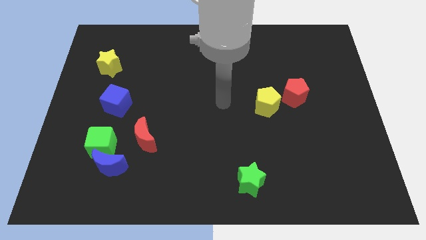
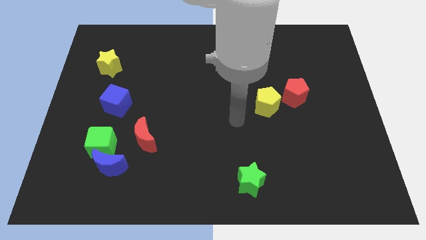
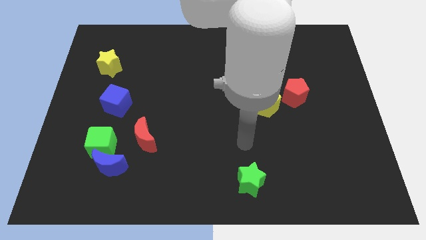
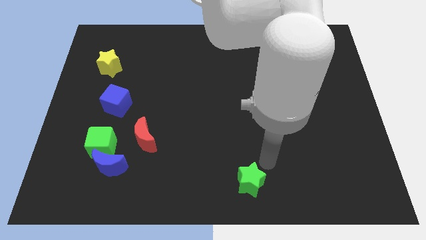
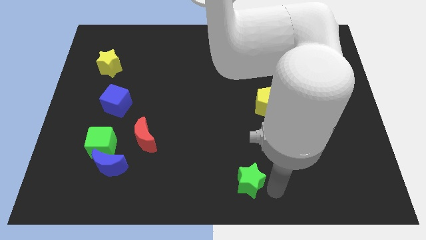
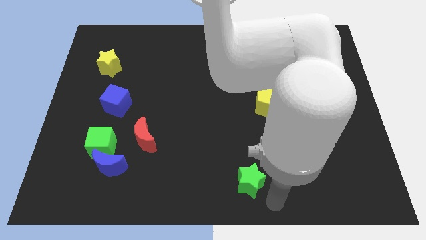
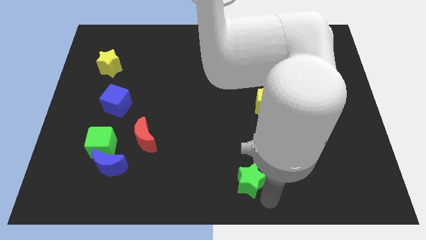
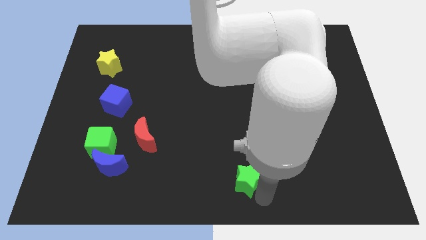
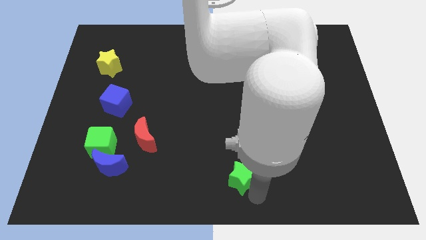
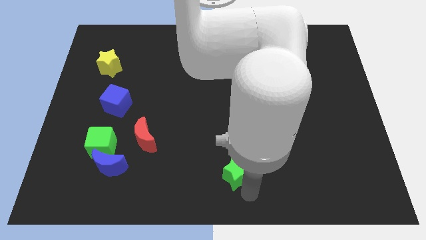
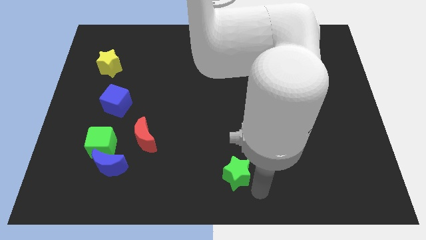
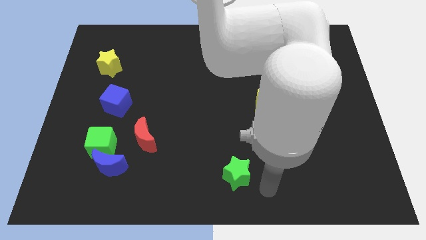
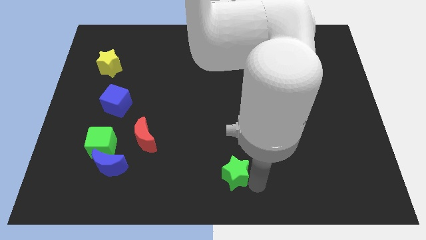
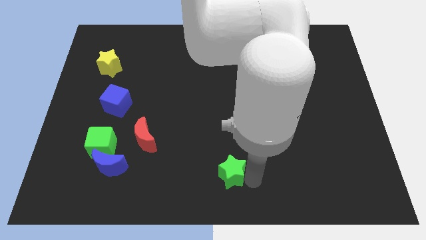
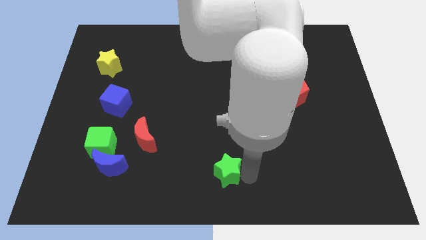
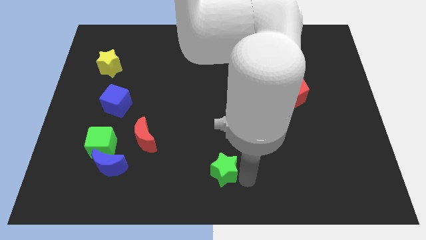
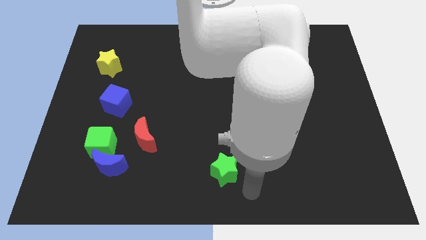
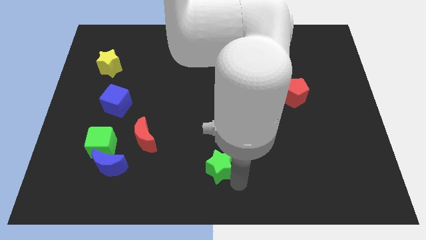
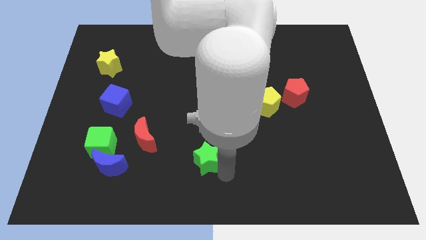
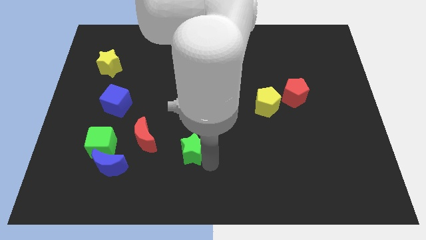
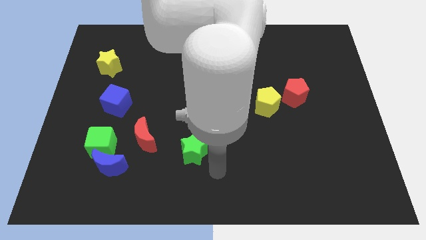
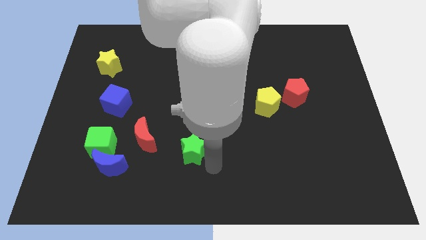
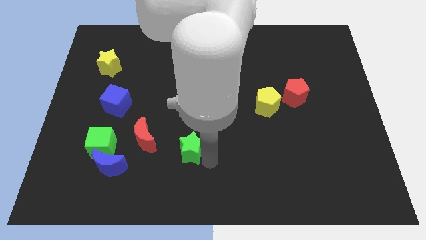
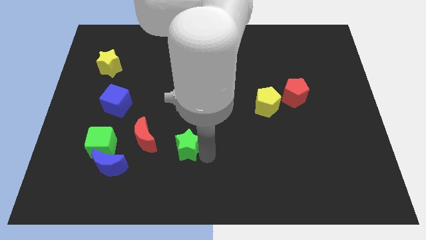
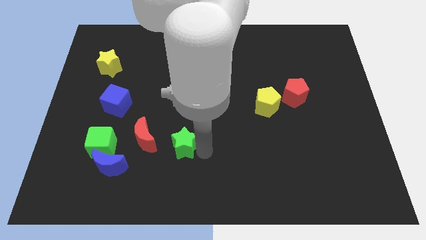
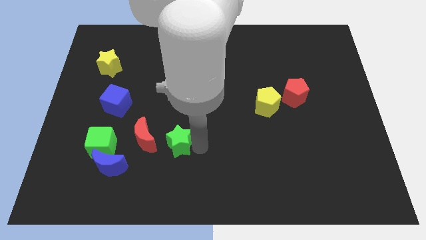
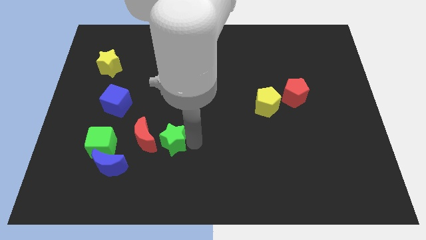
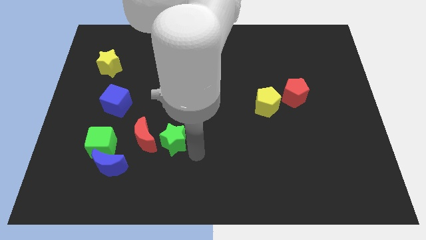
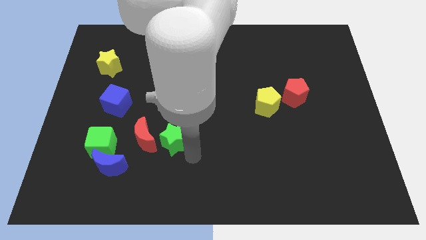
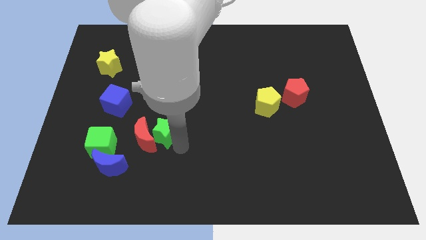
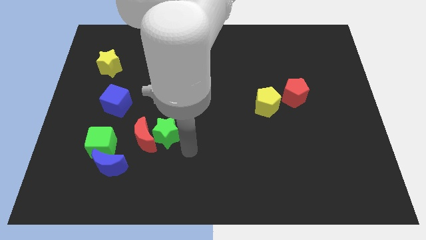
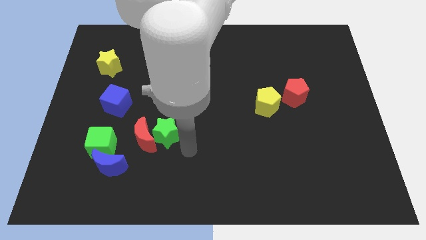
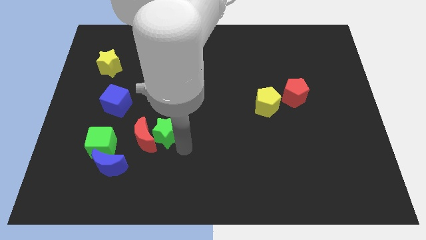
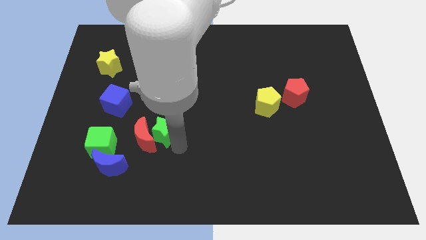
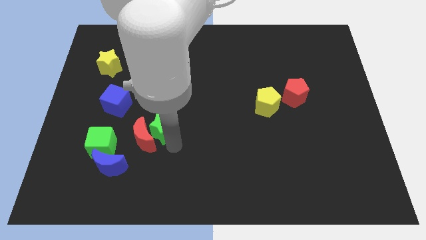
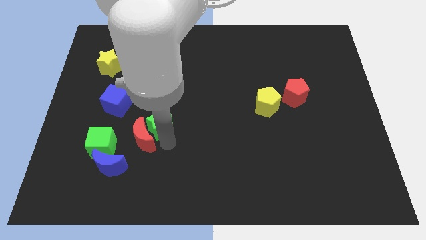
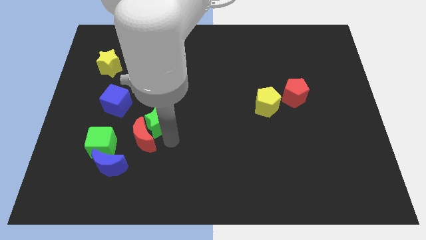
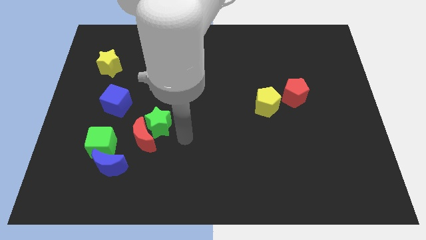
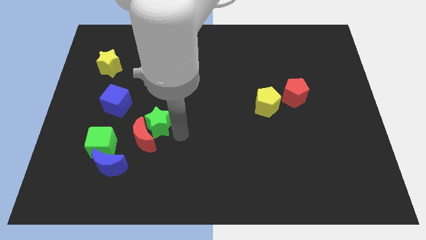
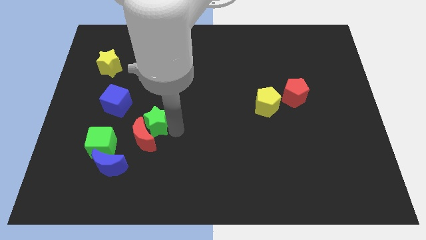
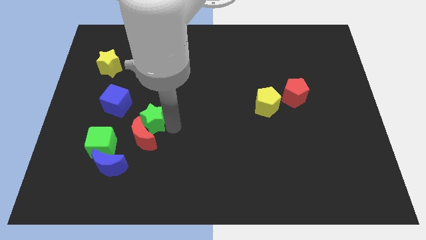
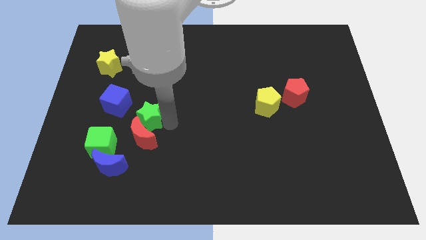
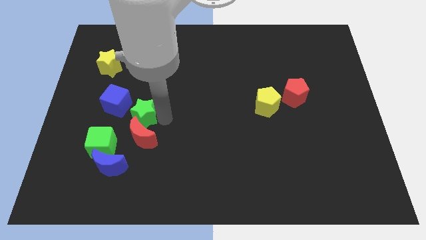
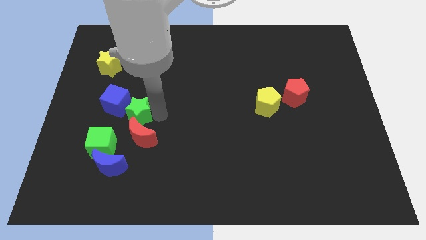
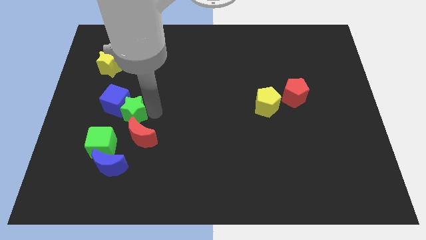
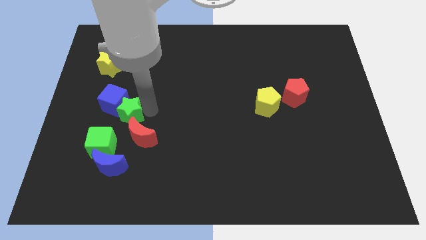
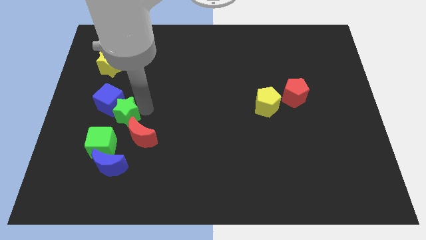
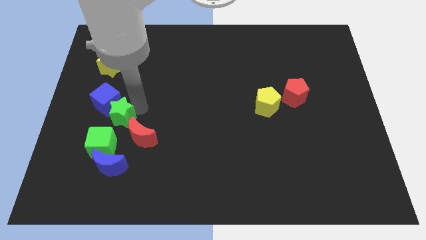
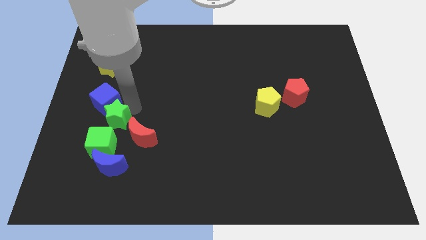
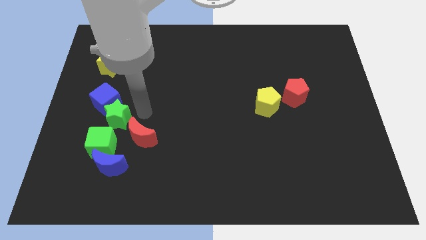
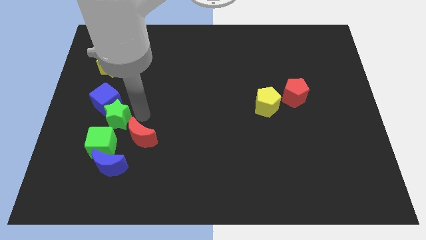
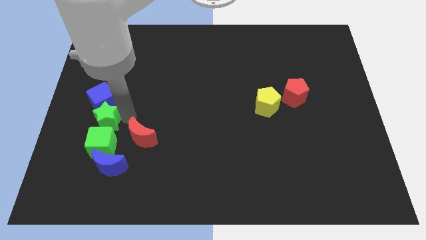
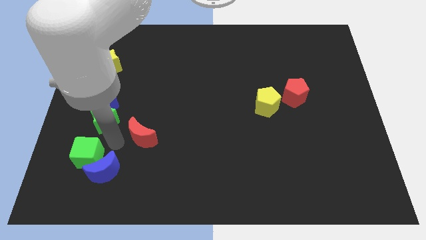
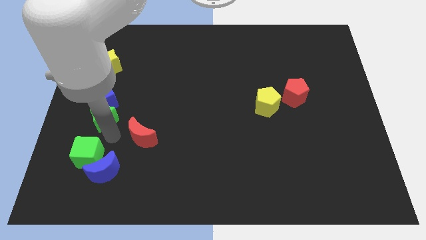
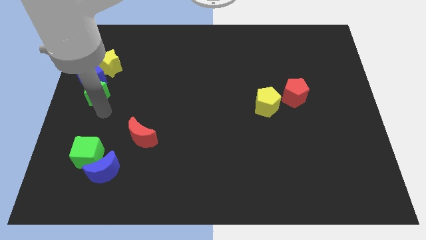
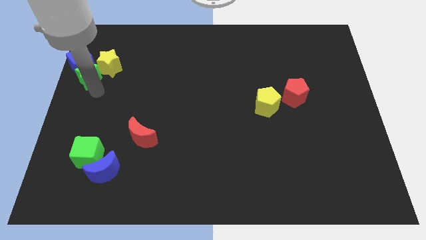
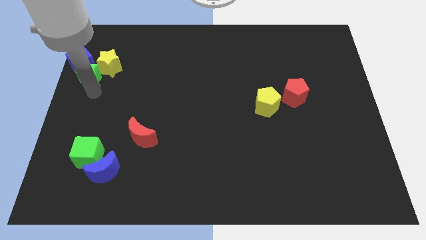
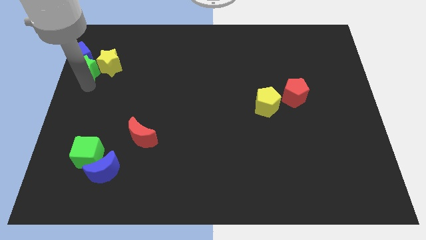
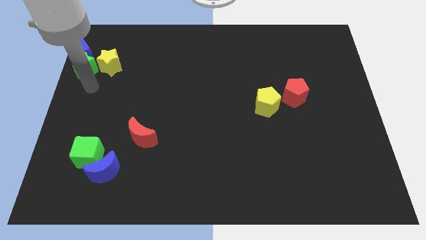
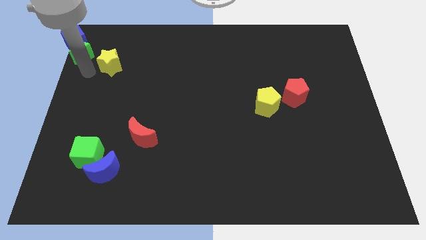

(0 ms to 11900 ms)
slide the green star to the top left corner

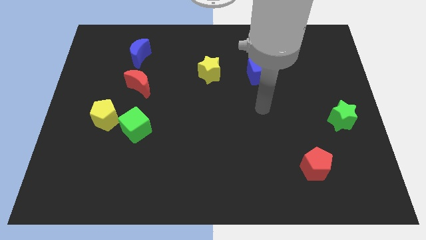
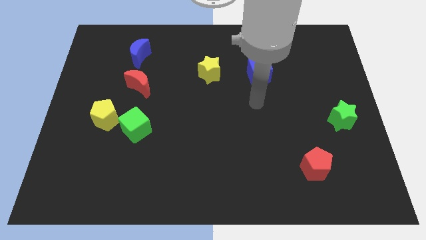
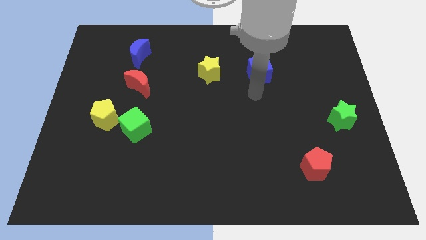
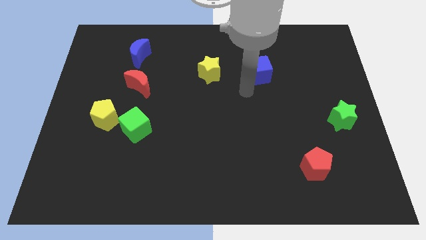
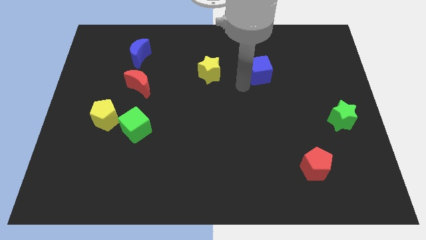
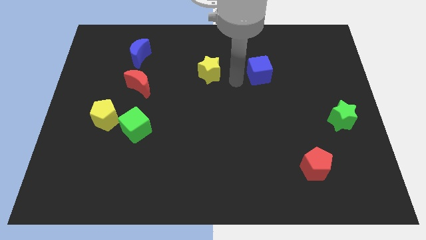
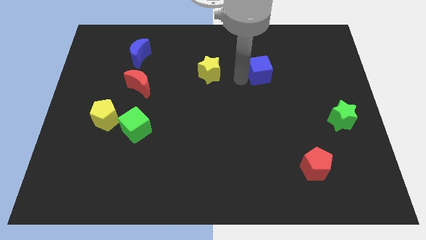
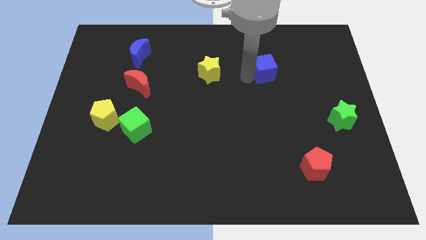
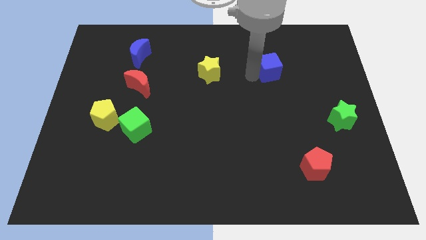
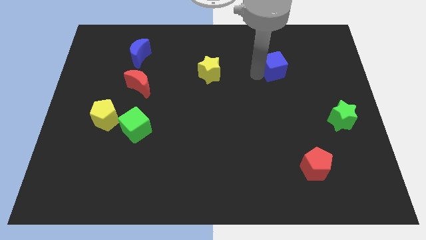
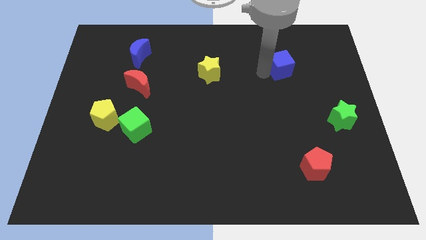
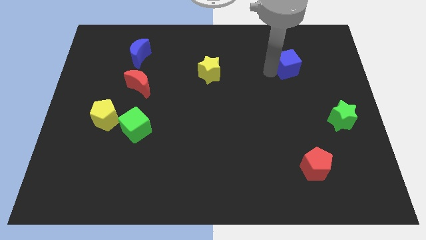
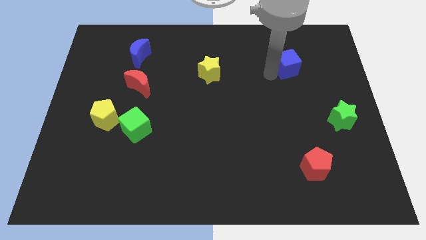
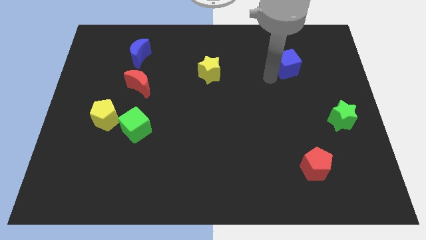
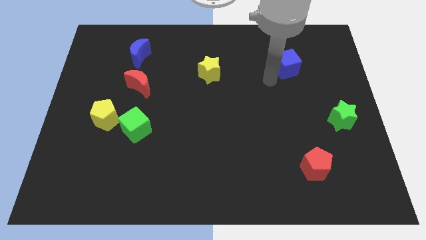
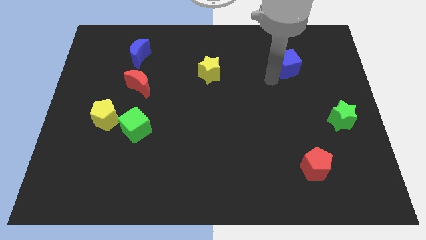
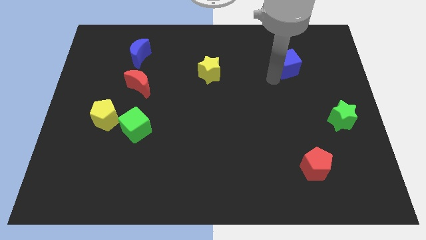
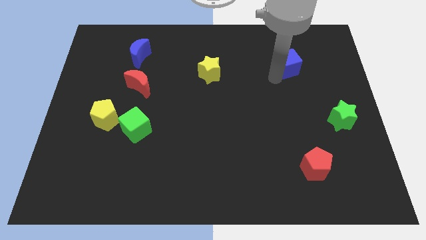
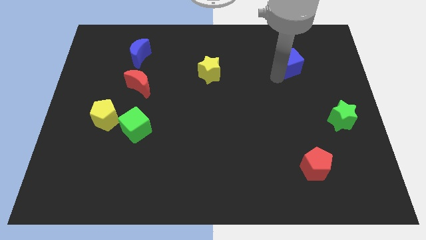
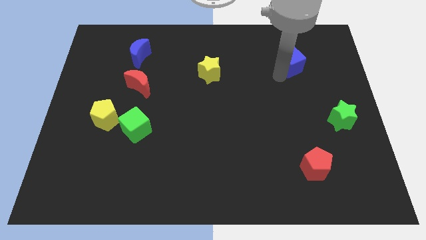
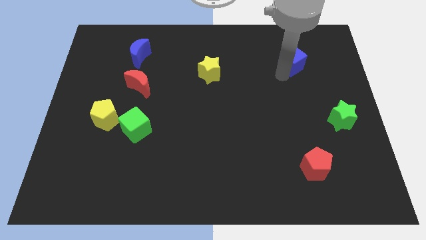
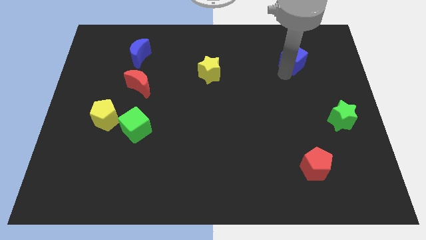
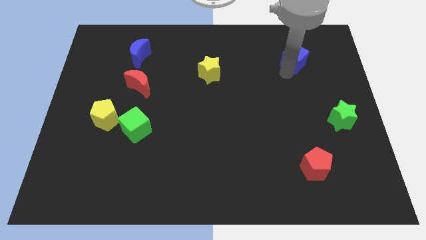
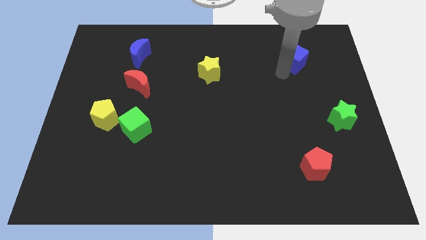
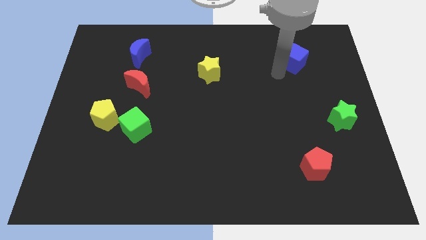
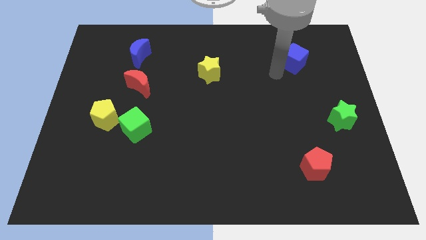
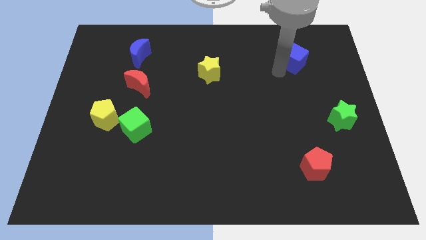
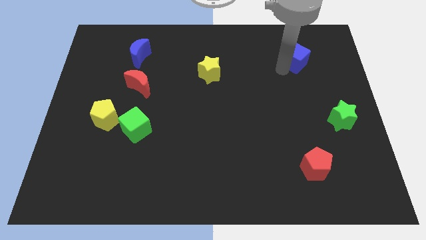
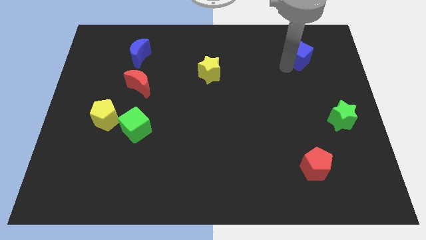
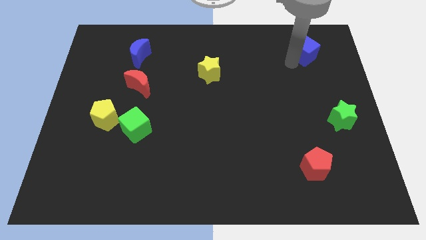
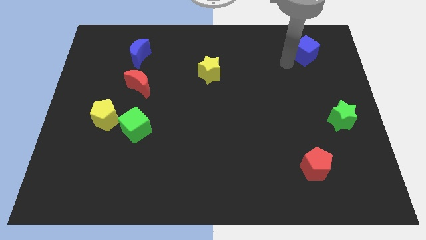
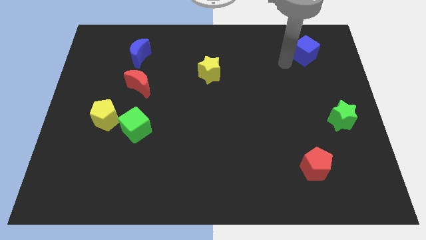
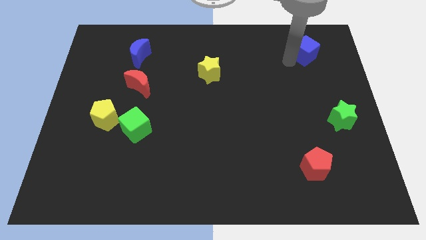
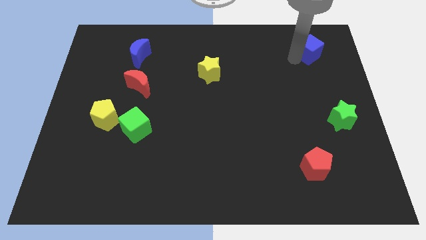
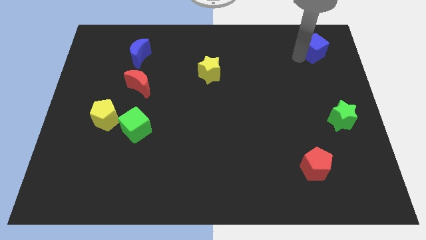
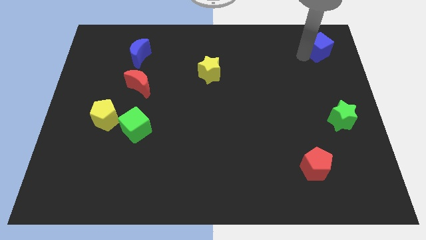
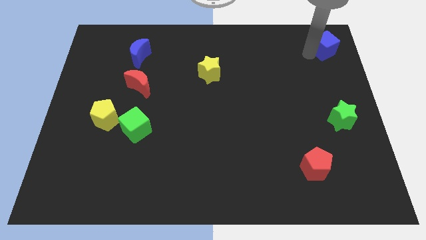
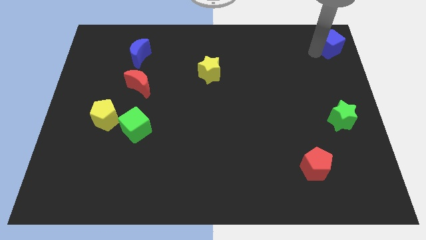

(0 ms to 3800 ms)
move the blue cube to the upper right corner
